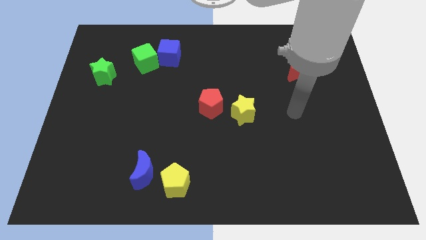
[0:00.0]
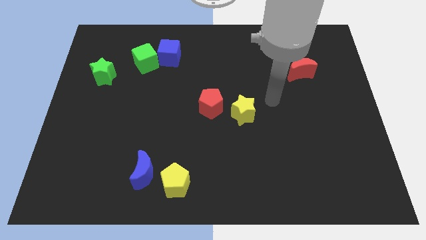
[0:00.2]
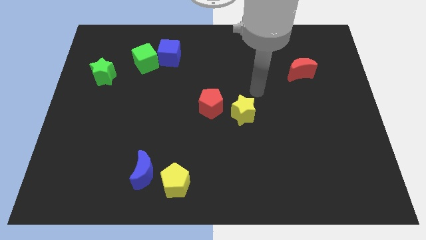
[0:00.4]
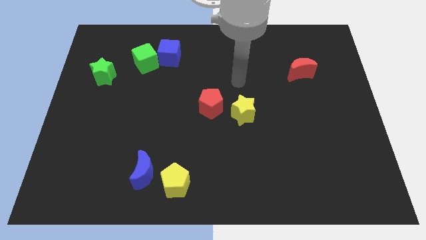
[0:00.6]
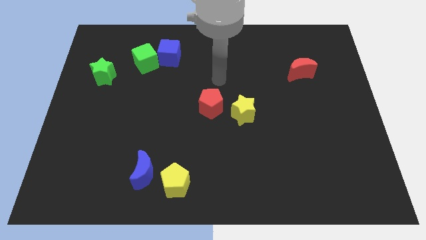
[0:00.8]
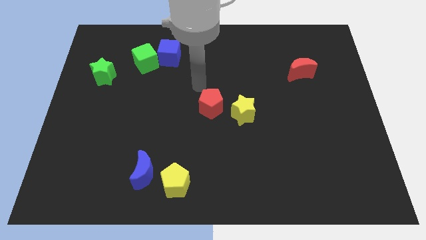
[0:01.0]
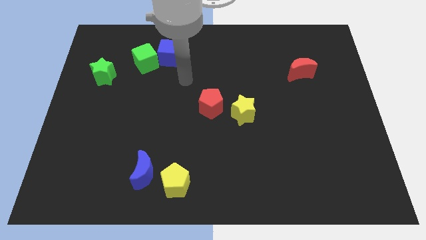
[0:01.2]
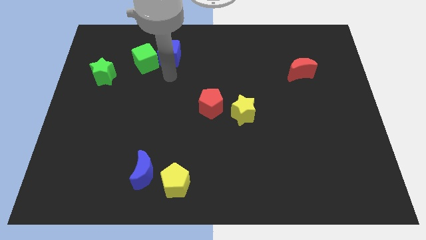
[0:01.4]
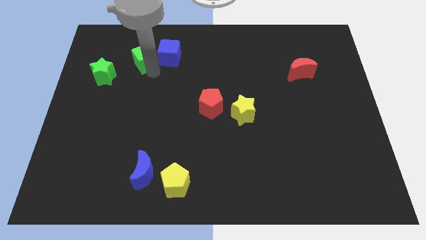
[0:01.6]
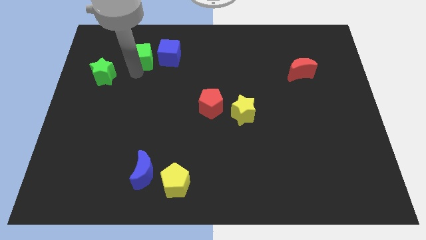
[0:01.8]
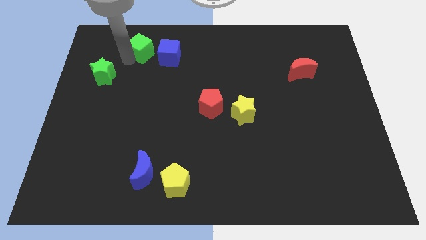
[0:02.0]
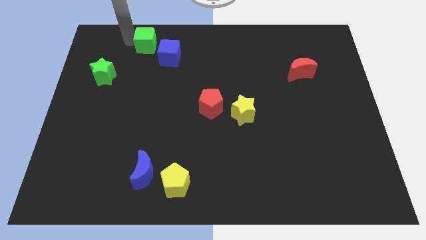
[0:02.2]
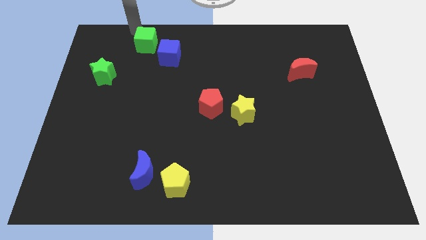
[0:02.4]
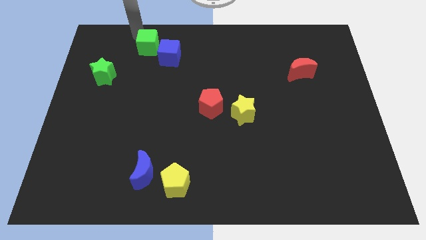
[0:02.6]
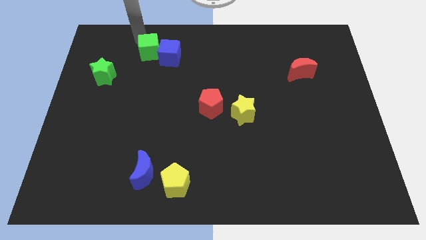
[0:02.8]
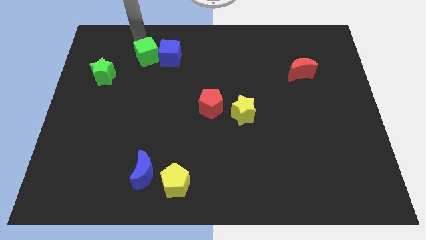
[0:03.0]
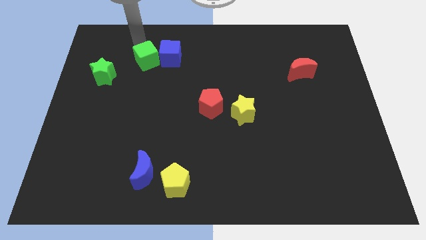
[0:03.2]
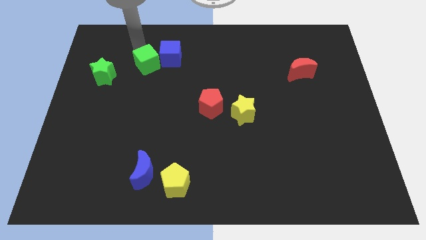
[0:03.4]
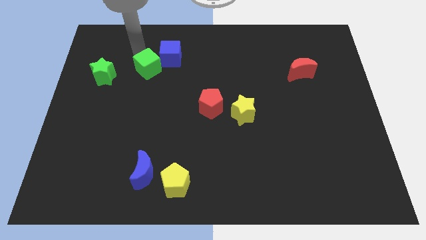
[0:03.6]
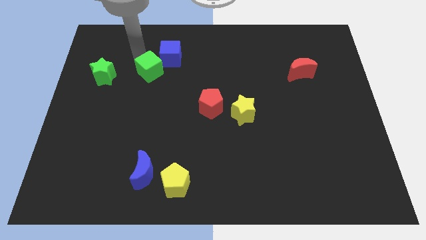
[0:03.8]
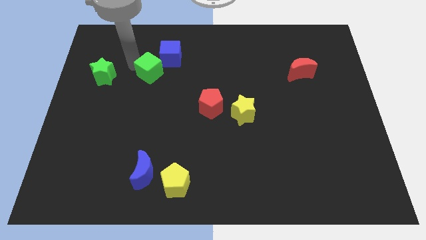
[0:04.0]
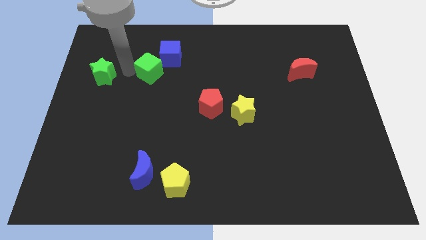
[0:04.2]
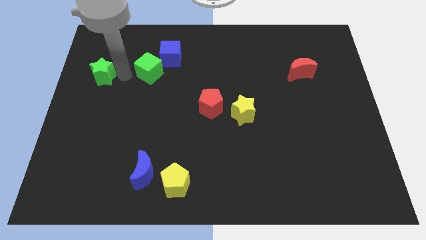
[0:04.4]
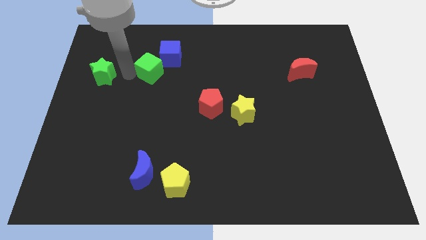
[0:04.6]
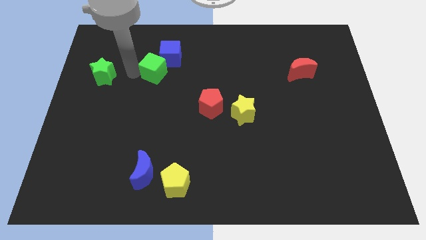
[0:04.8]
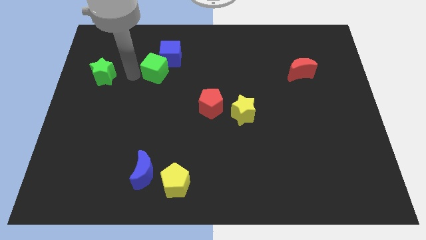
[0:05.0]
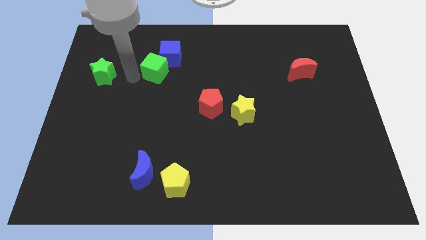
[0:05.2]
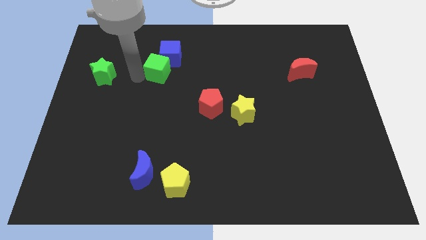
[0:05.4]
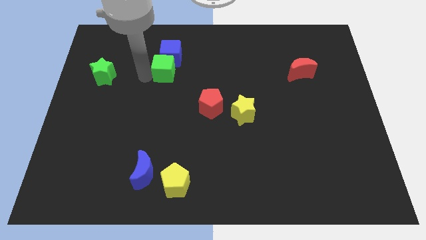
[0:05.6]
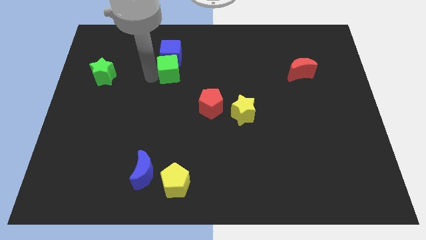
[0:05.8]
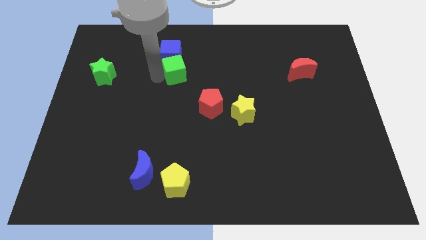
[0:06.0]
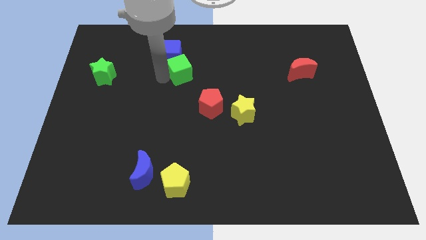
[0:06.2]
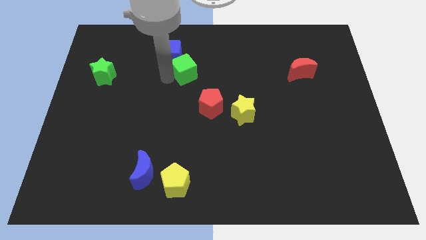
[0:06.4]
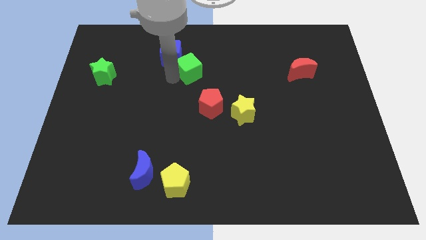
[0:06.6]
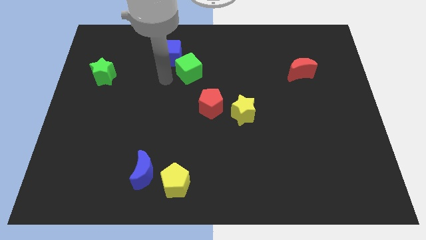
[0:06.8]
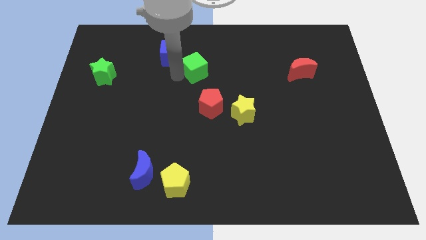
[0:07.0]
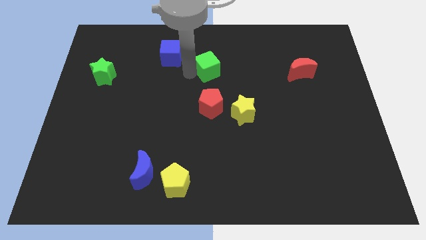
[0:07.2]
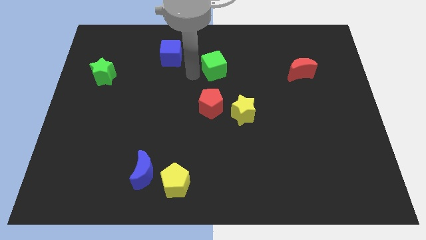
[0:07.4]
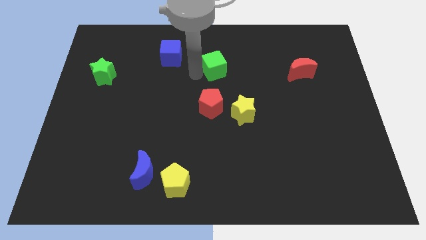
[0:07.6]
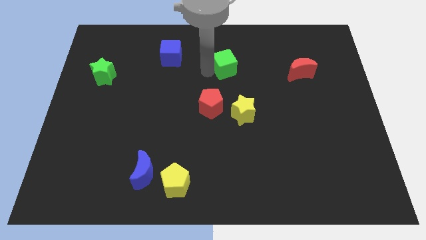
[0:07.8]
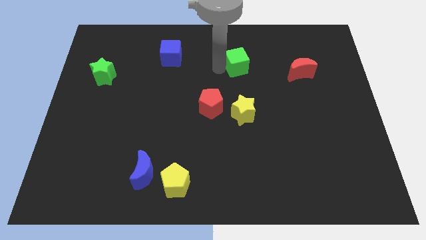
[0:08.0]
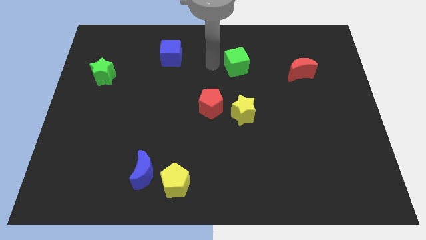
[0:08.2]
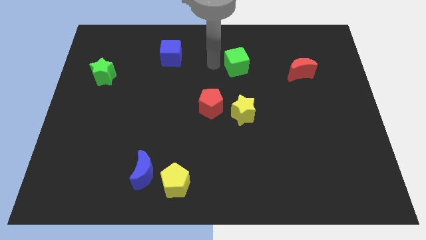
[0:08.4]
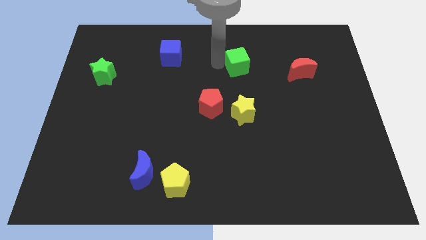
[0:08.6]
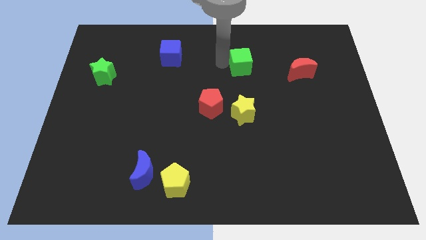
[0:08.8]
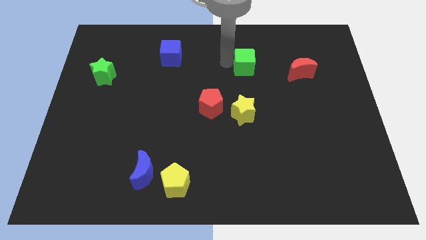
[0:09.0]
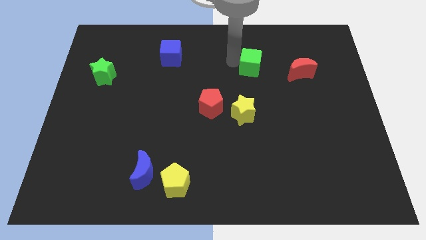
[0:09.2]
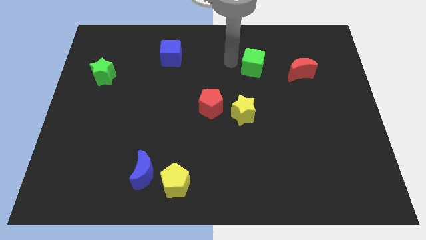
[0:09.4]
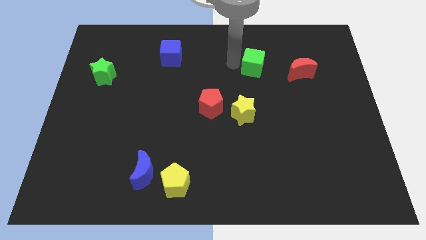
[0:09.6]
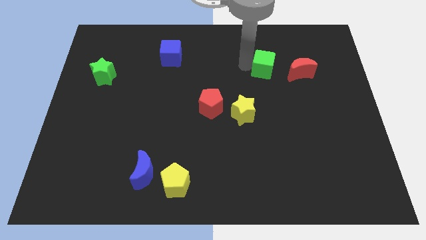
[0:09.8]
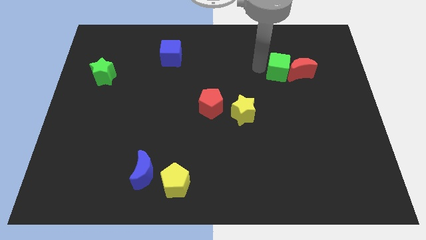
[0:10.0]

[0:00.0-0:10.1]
push the green cube close to the red moon

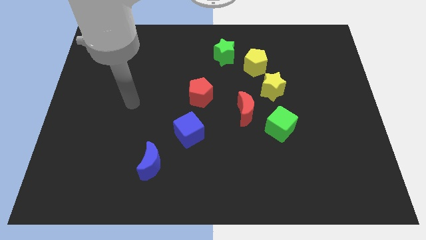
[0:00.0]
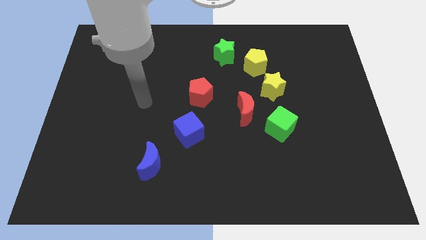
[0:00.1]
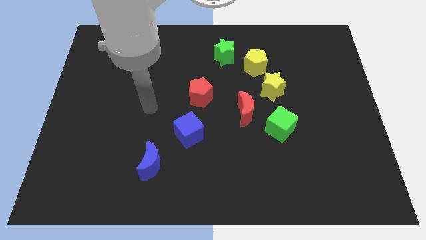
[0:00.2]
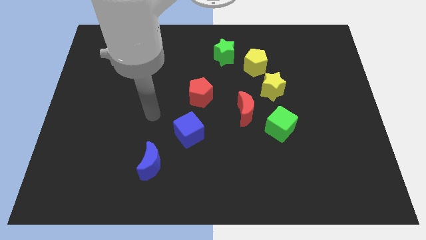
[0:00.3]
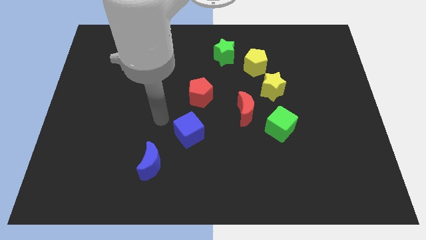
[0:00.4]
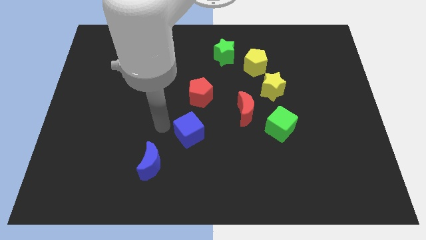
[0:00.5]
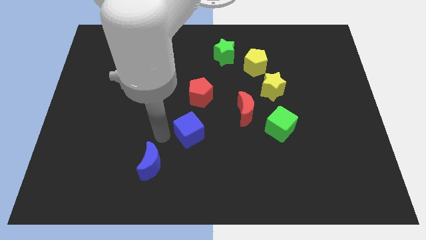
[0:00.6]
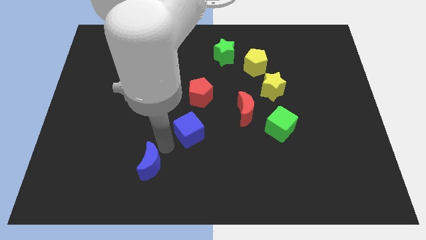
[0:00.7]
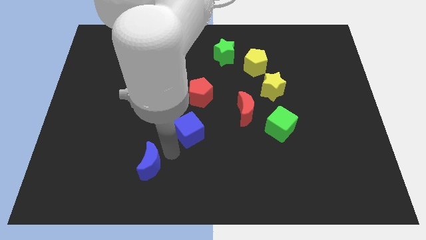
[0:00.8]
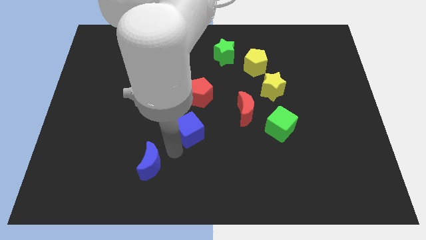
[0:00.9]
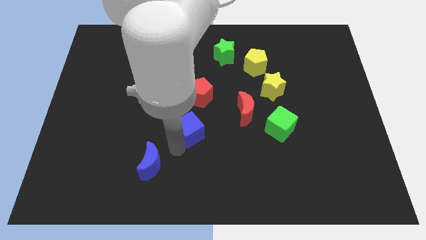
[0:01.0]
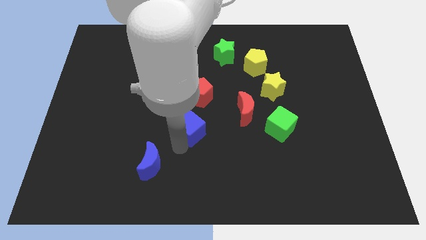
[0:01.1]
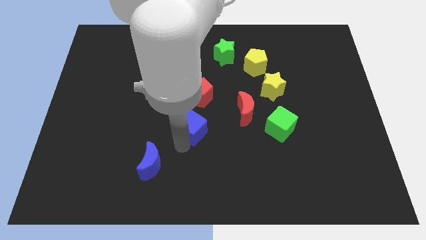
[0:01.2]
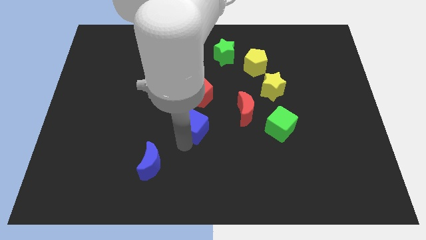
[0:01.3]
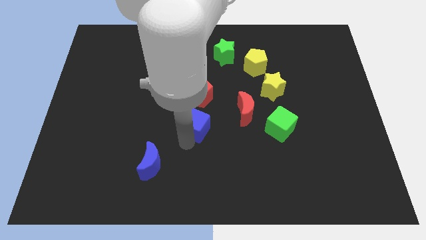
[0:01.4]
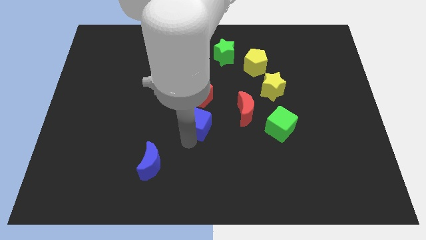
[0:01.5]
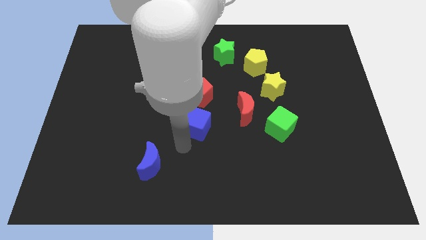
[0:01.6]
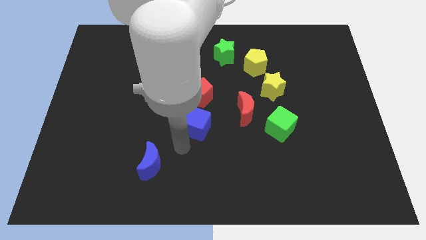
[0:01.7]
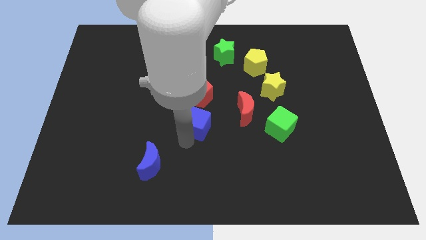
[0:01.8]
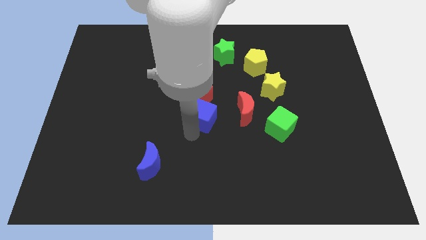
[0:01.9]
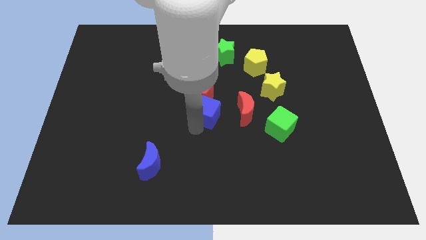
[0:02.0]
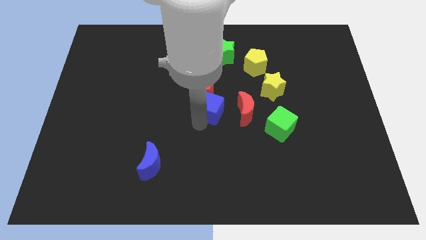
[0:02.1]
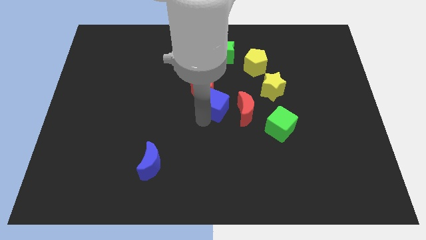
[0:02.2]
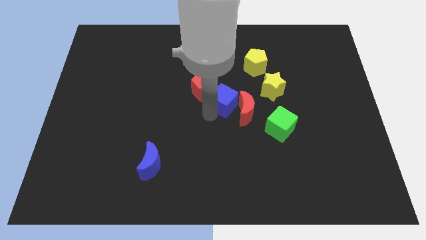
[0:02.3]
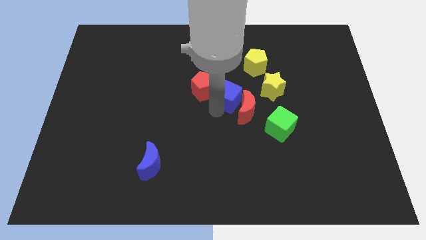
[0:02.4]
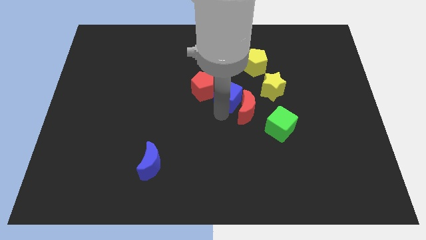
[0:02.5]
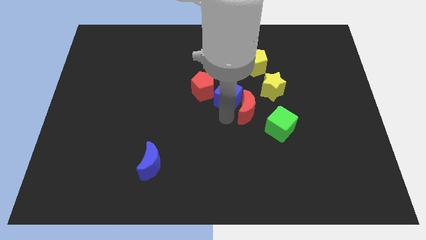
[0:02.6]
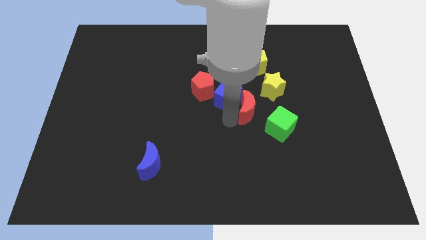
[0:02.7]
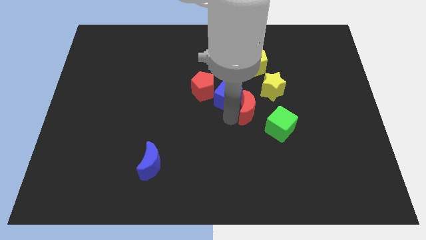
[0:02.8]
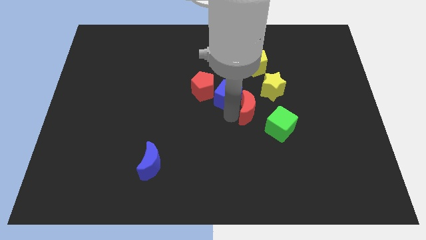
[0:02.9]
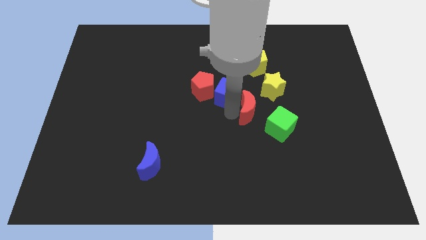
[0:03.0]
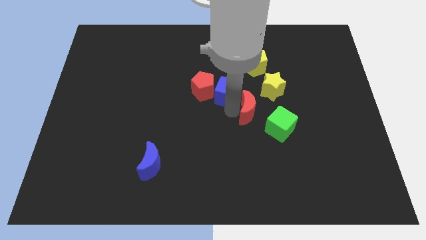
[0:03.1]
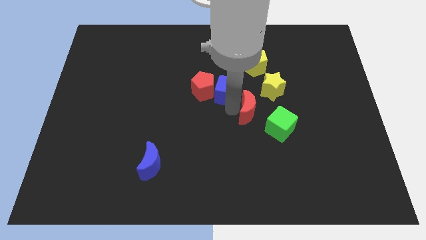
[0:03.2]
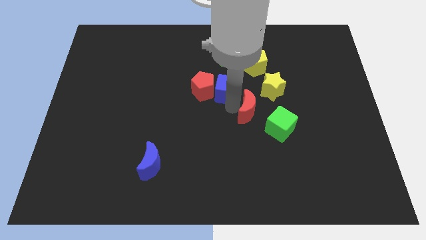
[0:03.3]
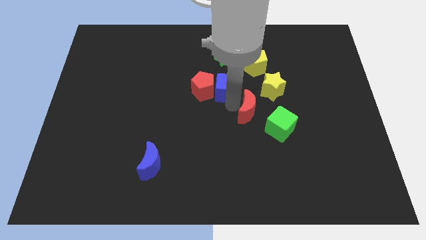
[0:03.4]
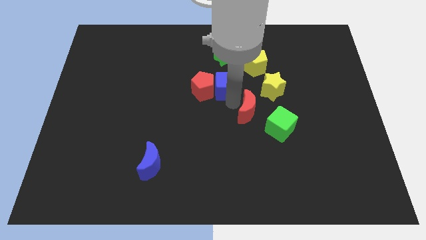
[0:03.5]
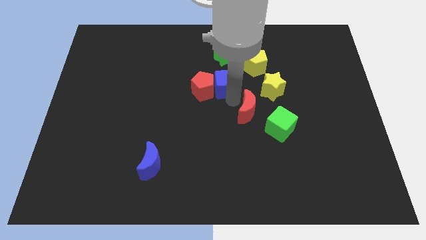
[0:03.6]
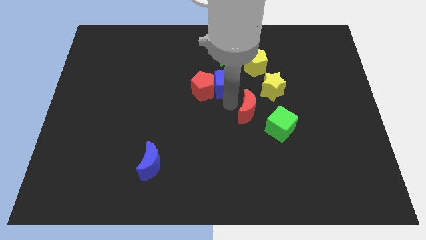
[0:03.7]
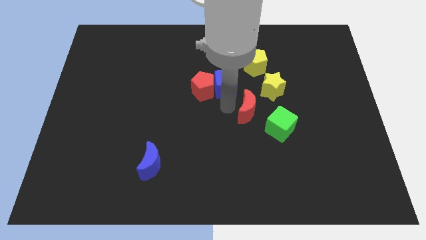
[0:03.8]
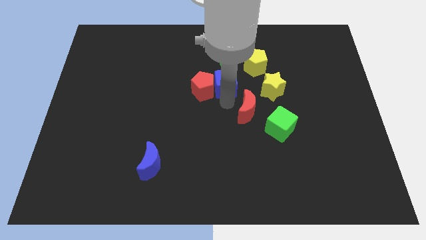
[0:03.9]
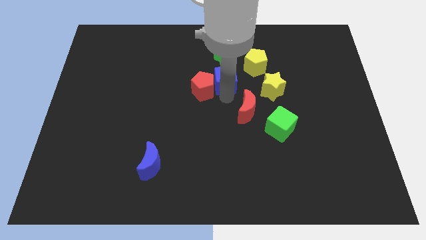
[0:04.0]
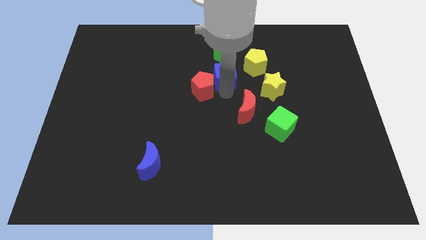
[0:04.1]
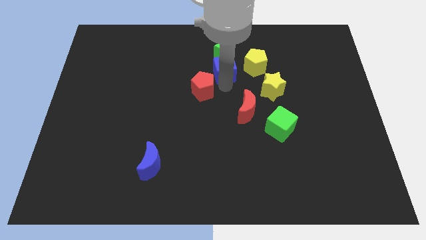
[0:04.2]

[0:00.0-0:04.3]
slide the blue cube to the green star
